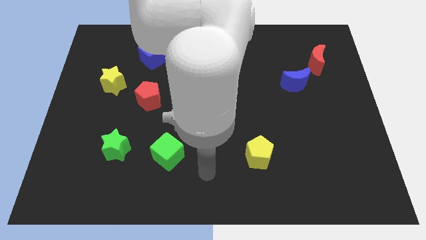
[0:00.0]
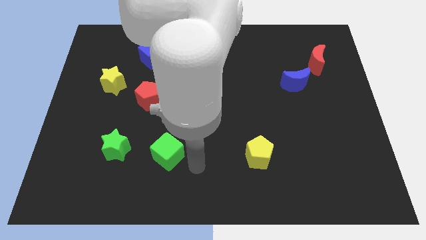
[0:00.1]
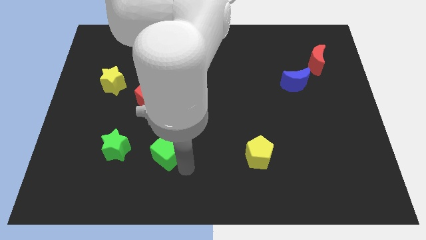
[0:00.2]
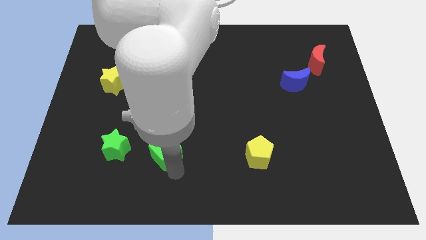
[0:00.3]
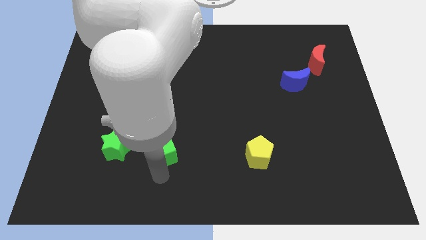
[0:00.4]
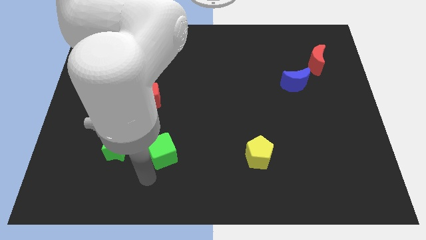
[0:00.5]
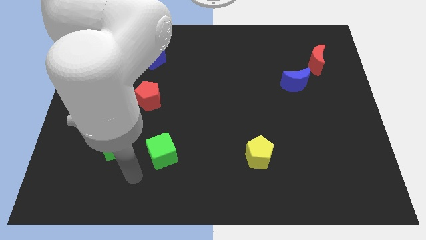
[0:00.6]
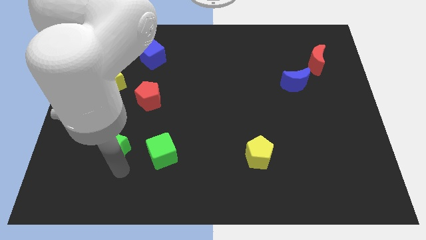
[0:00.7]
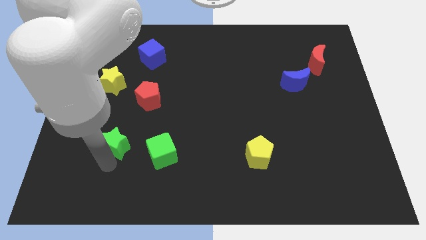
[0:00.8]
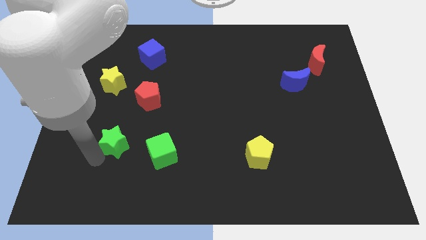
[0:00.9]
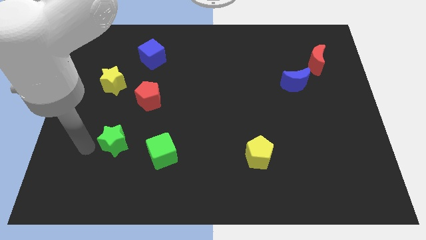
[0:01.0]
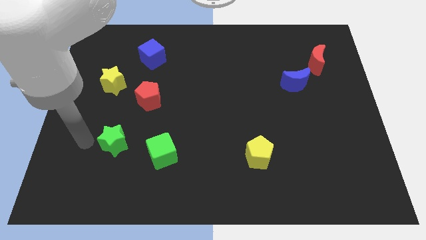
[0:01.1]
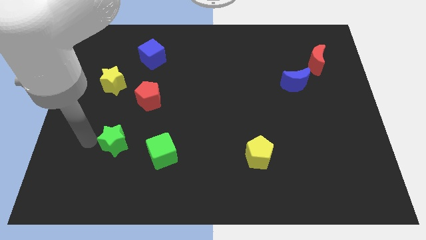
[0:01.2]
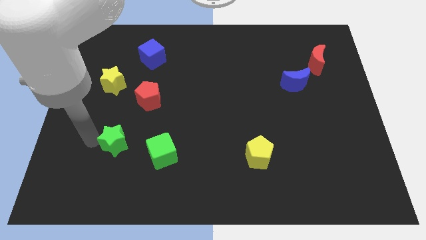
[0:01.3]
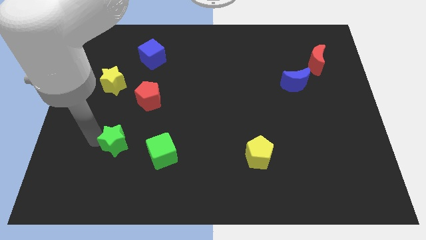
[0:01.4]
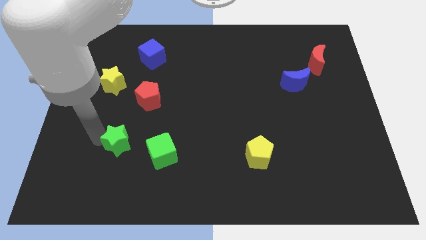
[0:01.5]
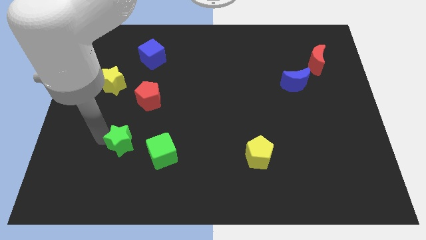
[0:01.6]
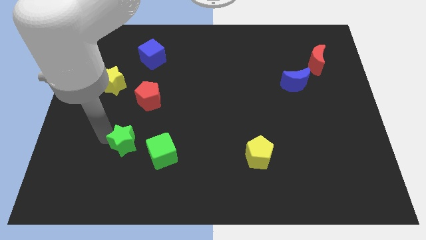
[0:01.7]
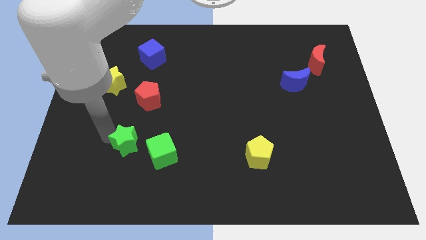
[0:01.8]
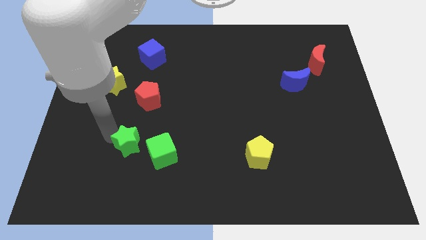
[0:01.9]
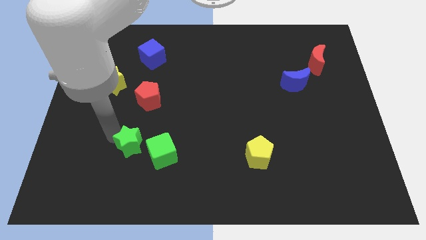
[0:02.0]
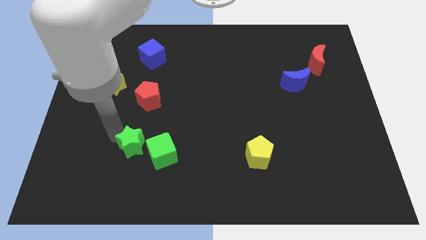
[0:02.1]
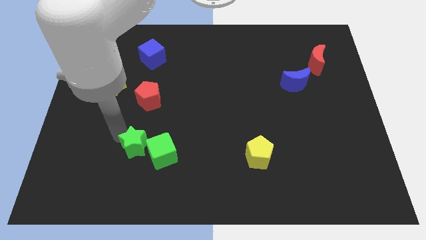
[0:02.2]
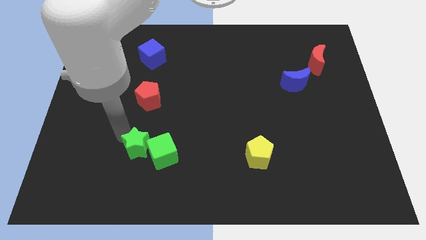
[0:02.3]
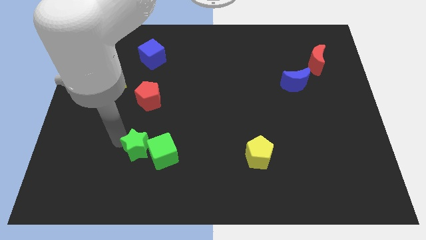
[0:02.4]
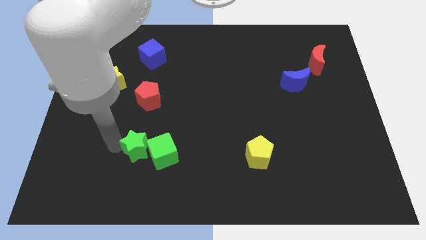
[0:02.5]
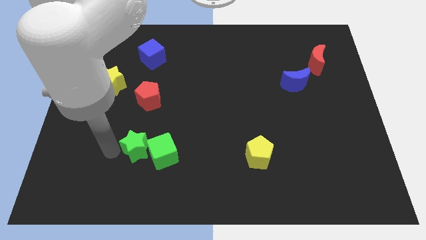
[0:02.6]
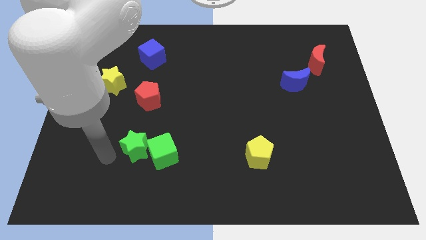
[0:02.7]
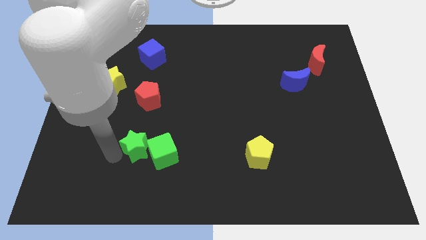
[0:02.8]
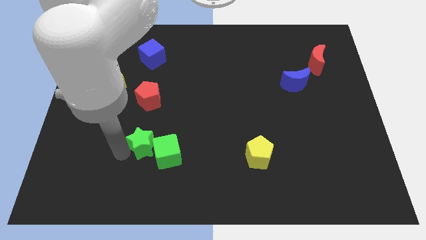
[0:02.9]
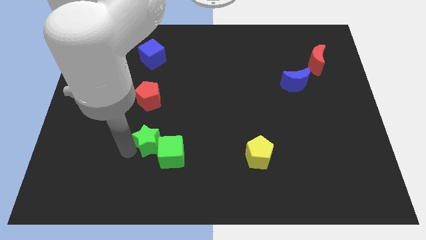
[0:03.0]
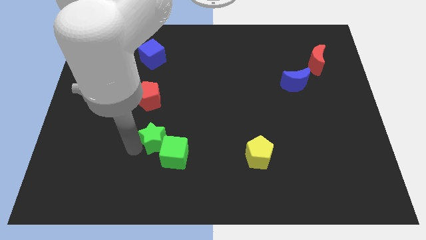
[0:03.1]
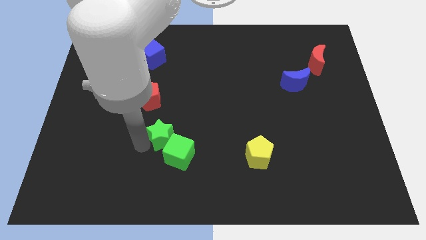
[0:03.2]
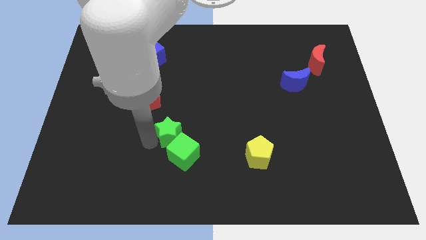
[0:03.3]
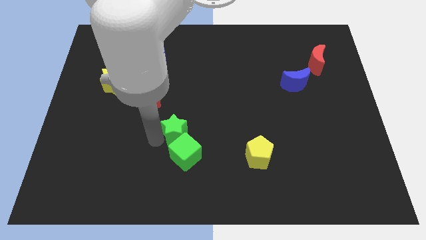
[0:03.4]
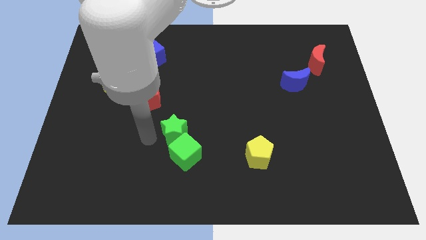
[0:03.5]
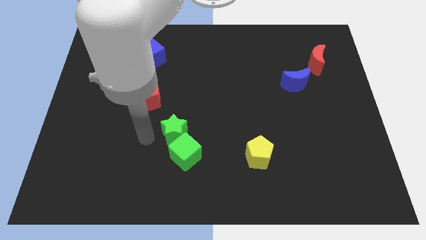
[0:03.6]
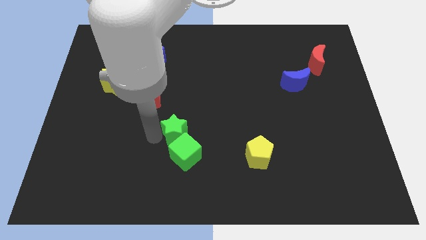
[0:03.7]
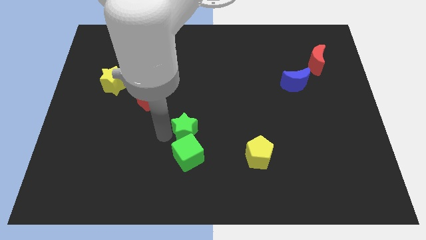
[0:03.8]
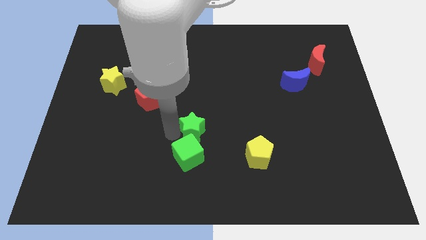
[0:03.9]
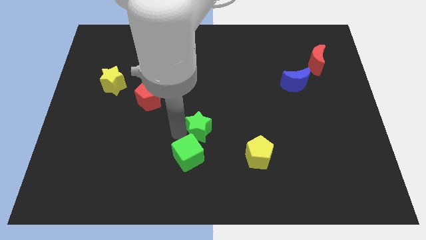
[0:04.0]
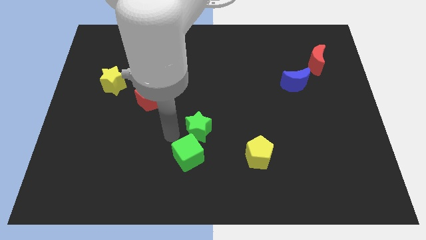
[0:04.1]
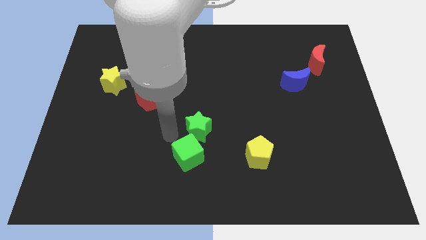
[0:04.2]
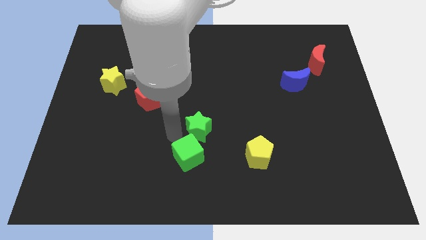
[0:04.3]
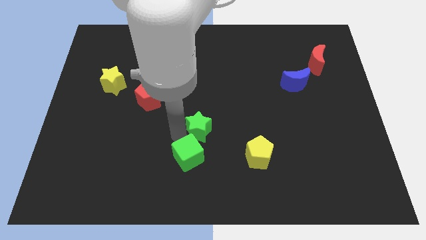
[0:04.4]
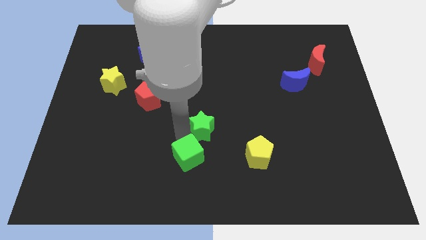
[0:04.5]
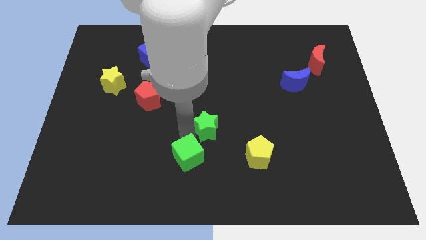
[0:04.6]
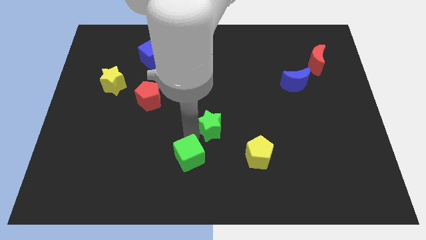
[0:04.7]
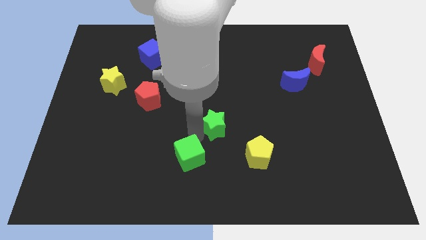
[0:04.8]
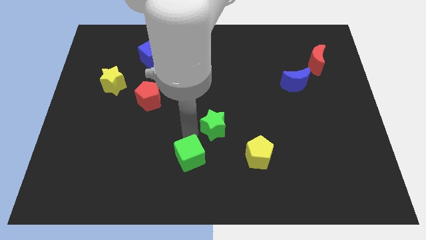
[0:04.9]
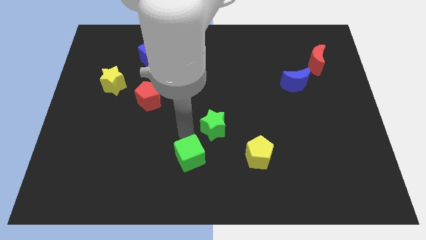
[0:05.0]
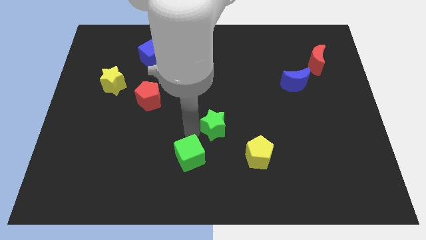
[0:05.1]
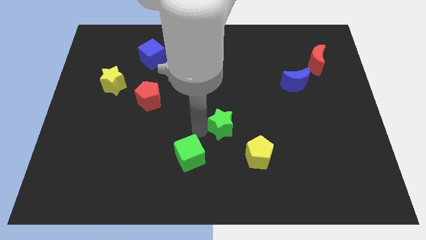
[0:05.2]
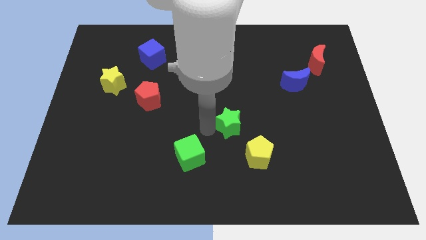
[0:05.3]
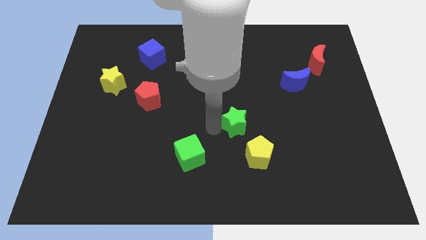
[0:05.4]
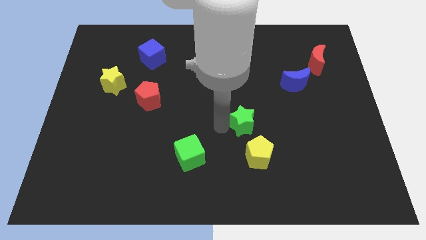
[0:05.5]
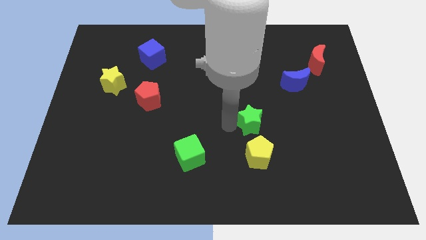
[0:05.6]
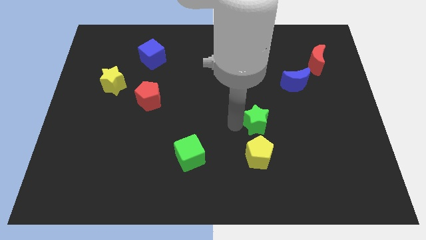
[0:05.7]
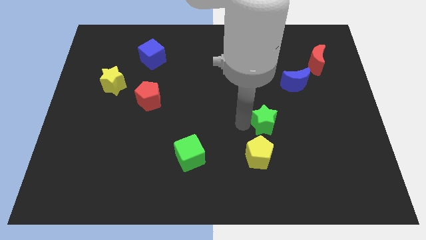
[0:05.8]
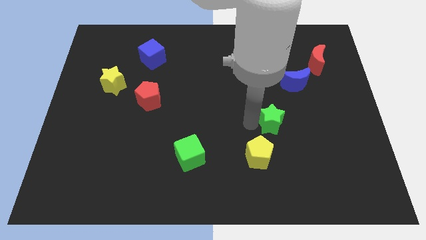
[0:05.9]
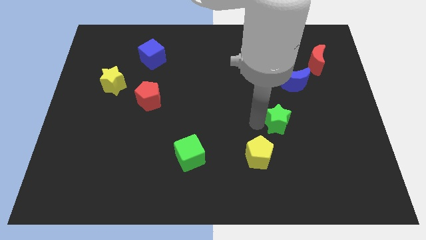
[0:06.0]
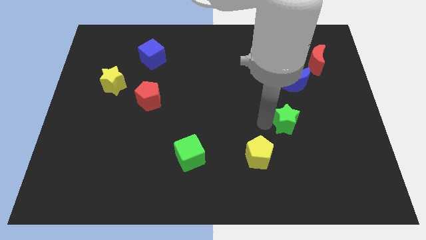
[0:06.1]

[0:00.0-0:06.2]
move the green star to the bottom side of the blue moon

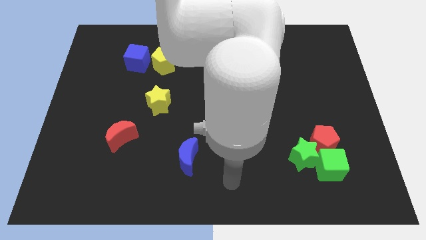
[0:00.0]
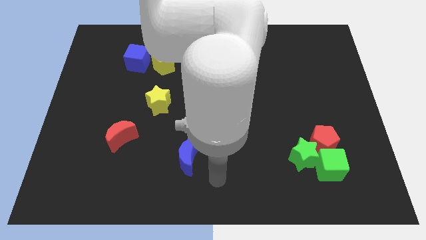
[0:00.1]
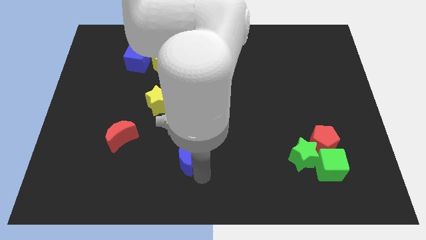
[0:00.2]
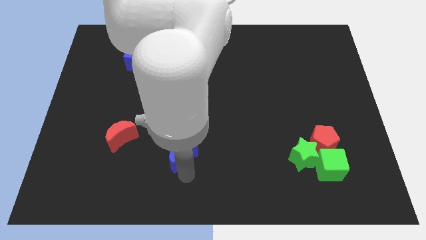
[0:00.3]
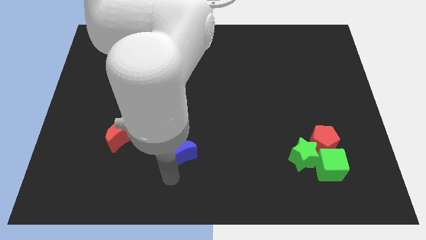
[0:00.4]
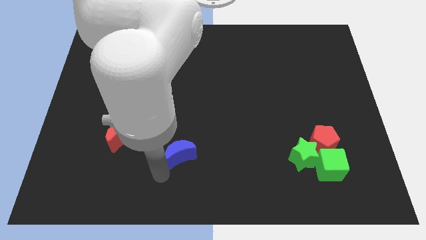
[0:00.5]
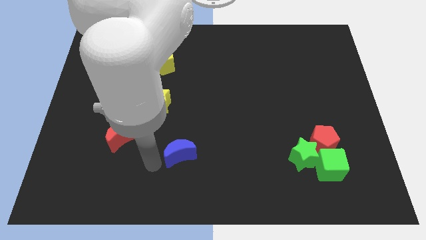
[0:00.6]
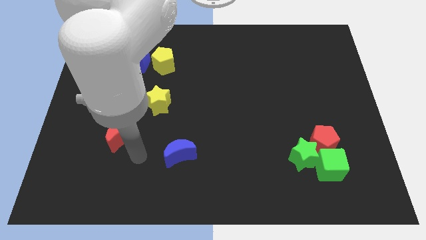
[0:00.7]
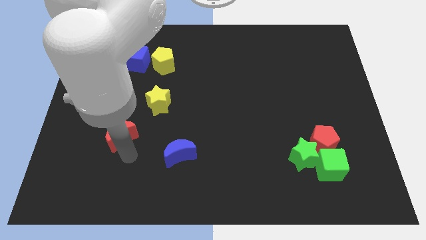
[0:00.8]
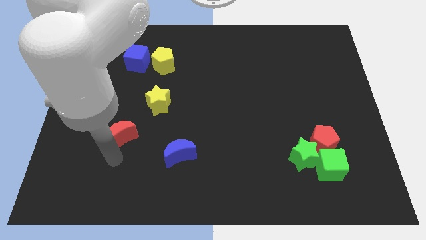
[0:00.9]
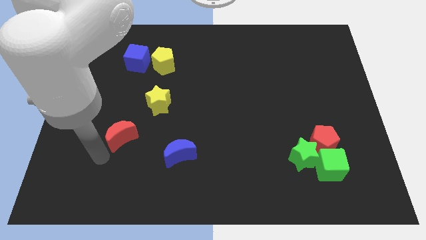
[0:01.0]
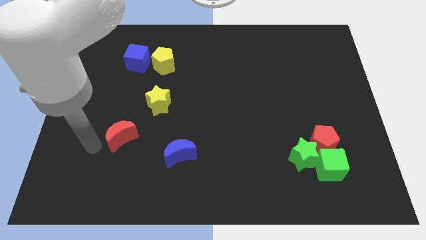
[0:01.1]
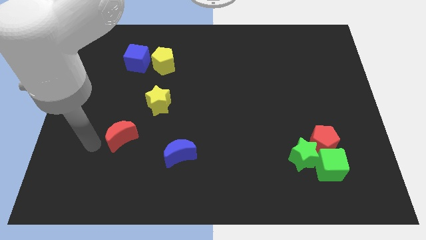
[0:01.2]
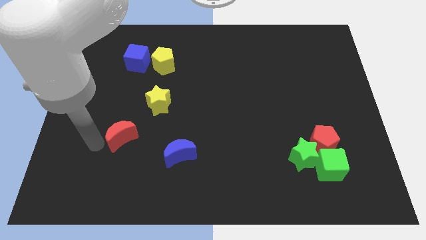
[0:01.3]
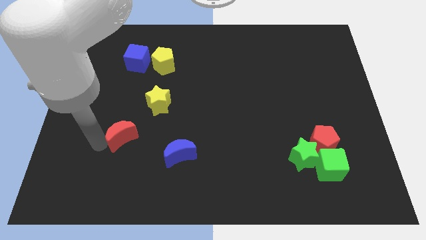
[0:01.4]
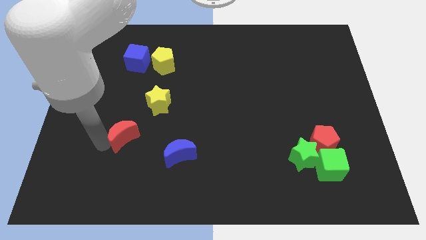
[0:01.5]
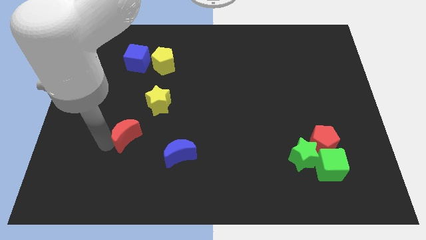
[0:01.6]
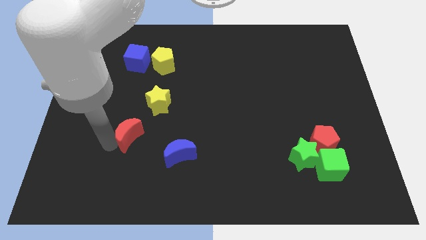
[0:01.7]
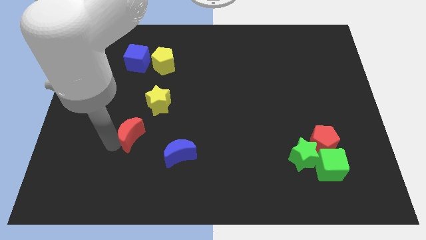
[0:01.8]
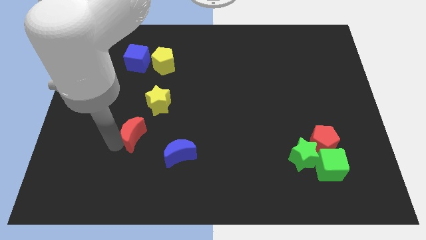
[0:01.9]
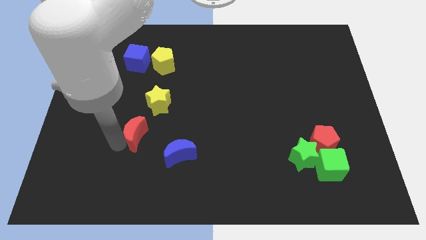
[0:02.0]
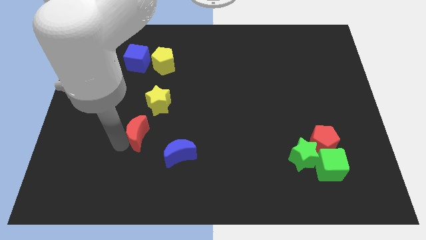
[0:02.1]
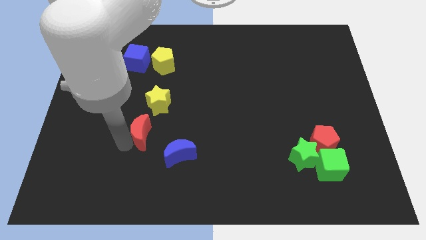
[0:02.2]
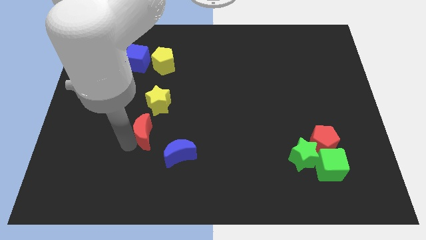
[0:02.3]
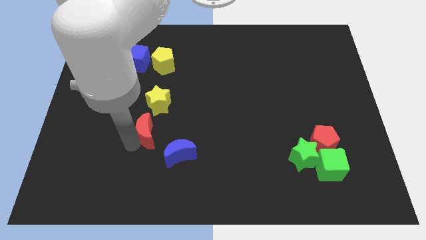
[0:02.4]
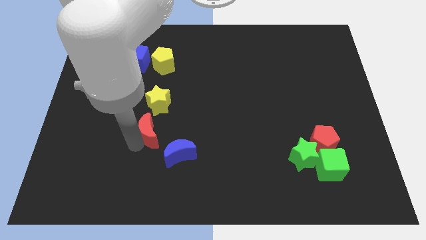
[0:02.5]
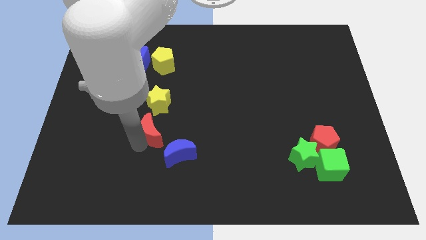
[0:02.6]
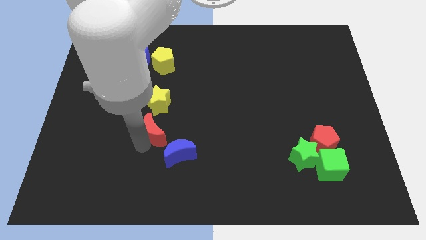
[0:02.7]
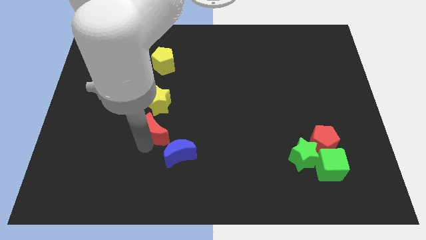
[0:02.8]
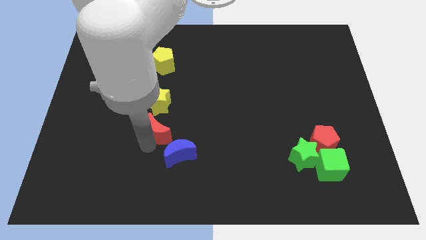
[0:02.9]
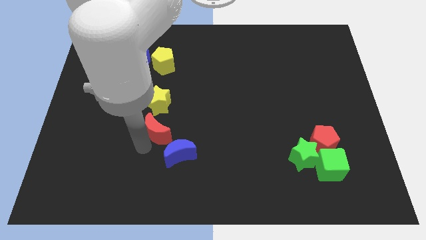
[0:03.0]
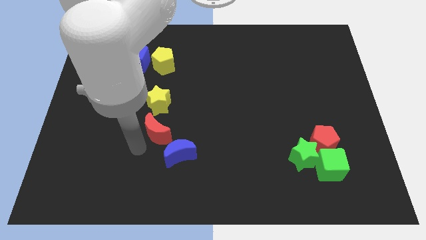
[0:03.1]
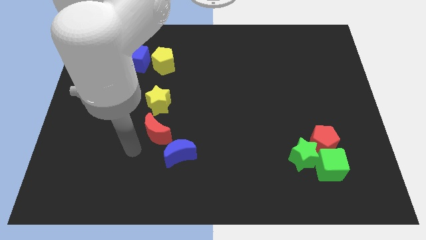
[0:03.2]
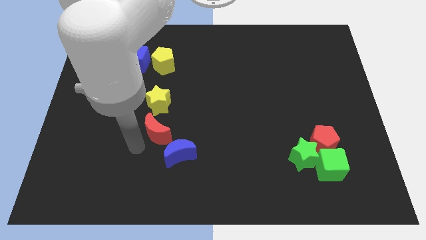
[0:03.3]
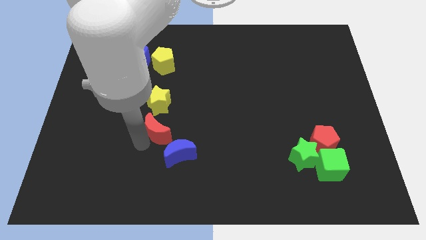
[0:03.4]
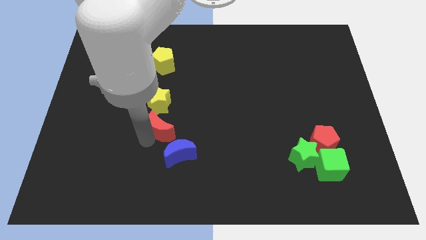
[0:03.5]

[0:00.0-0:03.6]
put the red moon above the blue moon
